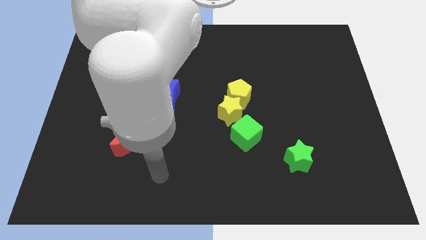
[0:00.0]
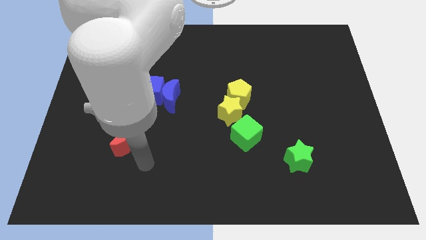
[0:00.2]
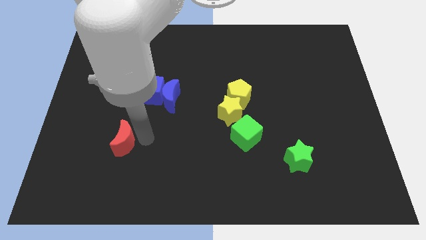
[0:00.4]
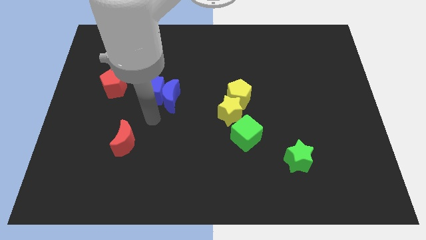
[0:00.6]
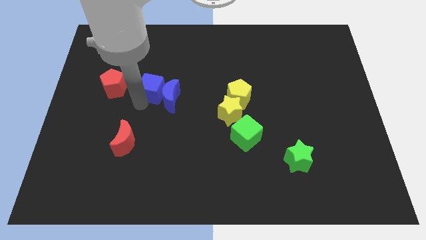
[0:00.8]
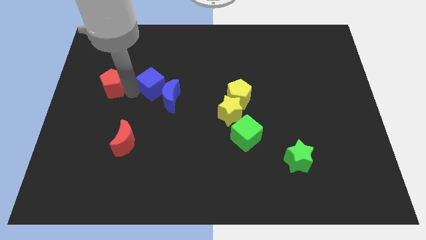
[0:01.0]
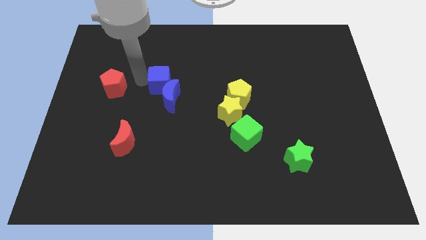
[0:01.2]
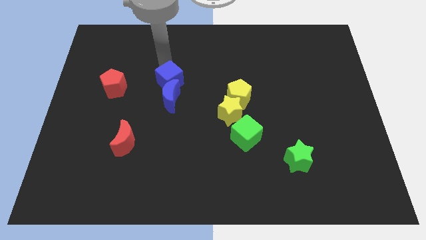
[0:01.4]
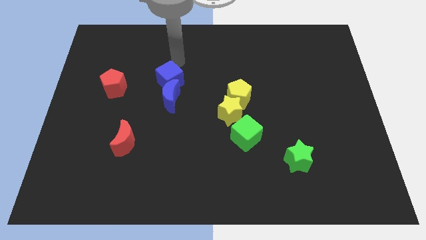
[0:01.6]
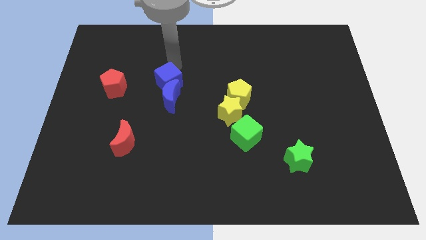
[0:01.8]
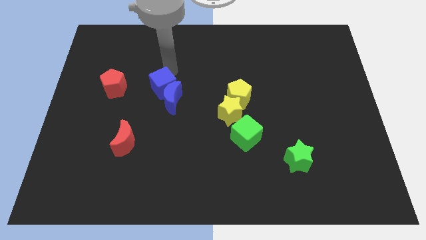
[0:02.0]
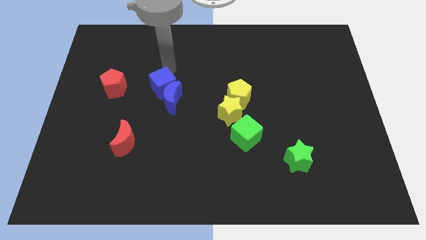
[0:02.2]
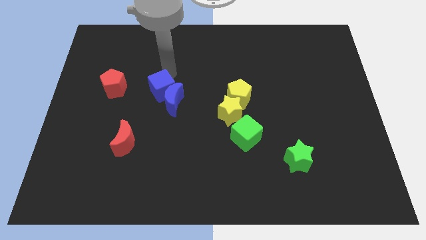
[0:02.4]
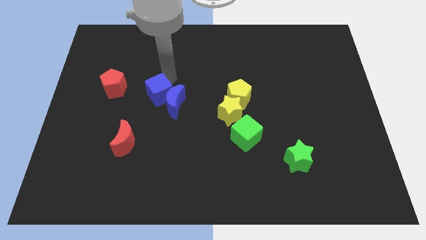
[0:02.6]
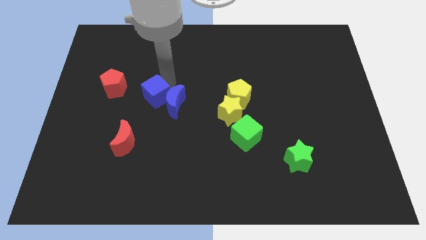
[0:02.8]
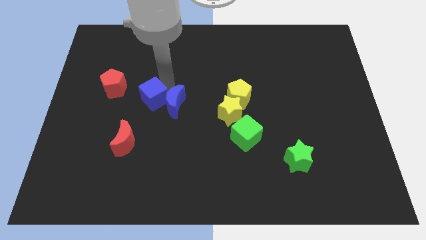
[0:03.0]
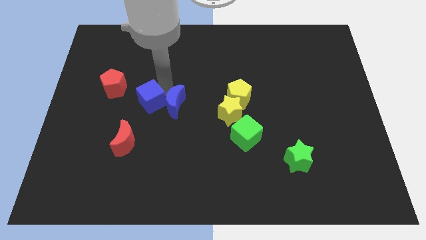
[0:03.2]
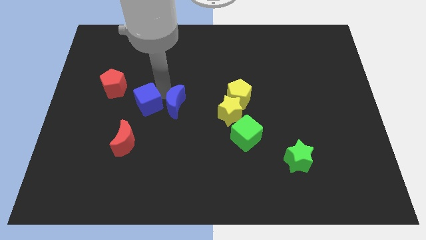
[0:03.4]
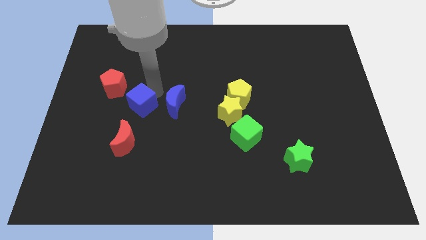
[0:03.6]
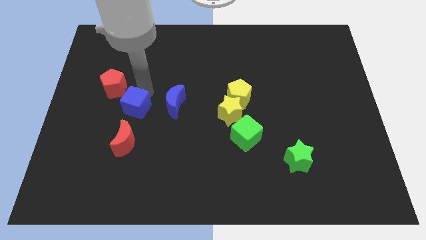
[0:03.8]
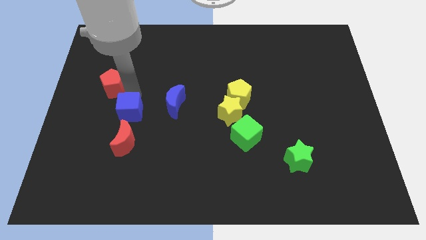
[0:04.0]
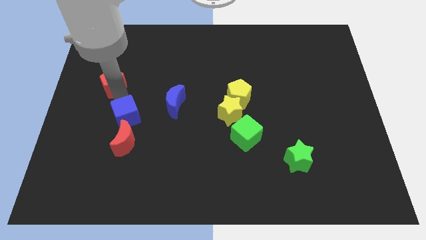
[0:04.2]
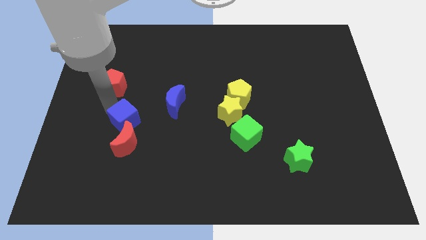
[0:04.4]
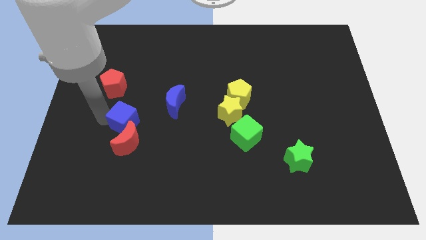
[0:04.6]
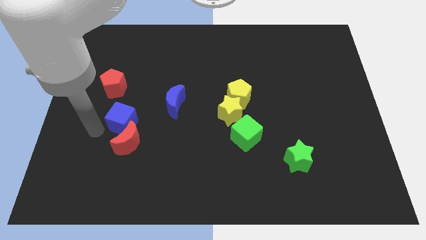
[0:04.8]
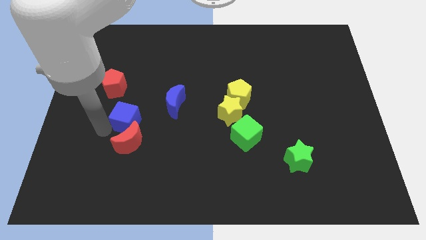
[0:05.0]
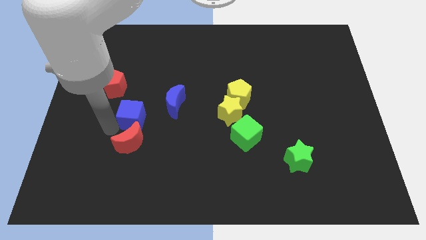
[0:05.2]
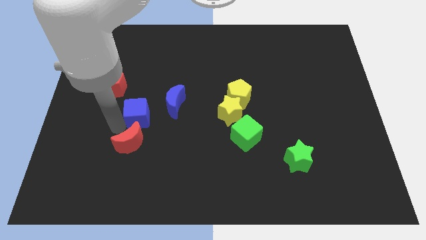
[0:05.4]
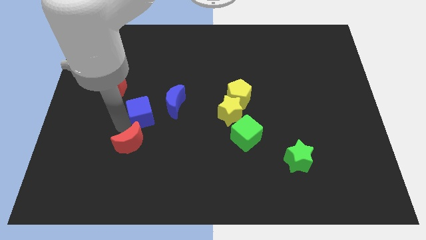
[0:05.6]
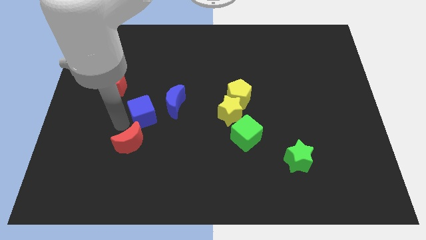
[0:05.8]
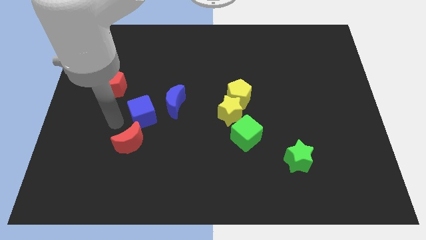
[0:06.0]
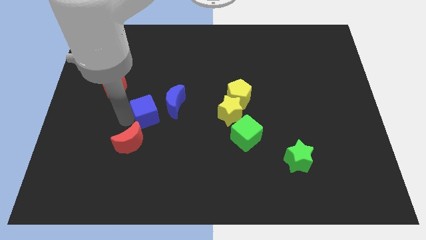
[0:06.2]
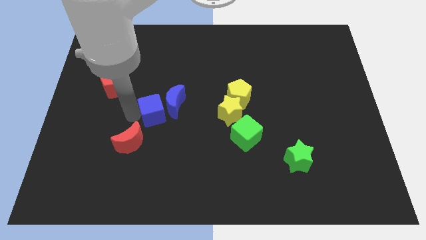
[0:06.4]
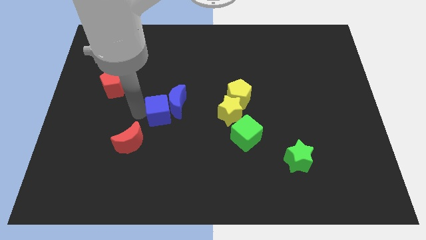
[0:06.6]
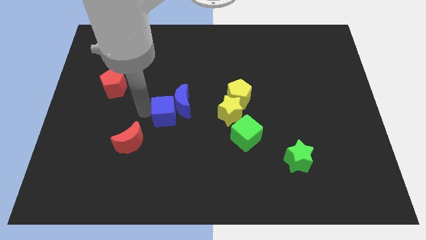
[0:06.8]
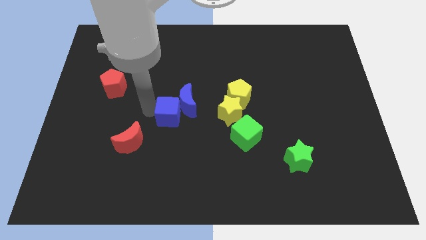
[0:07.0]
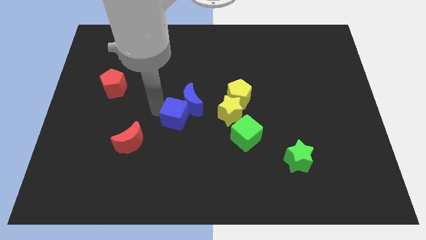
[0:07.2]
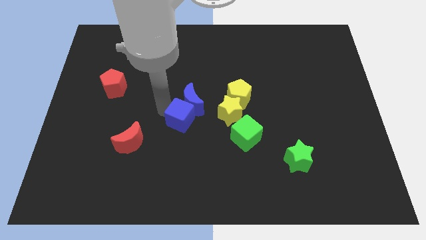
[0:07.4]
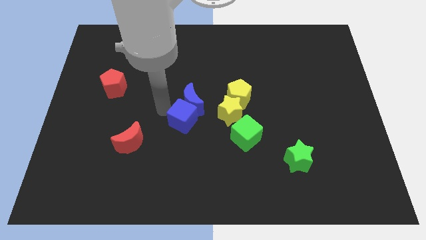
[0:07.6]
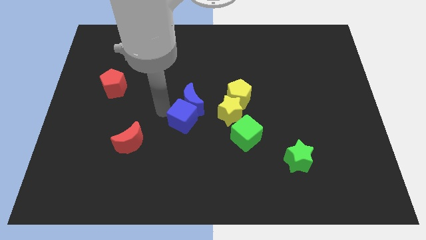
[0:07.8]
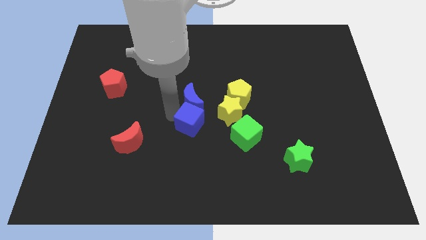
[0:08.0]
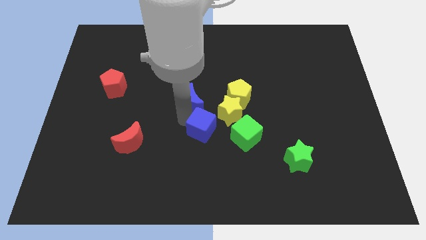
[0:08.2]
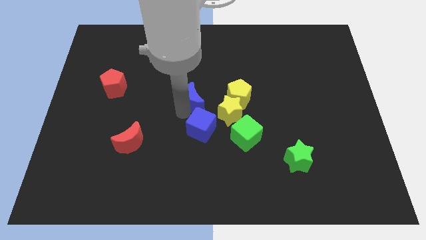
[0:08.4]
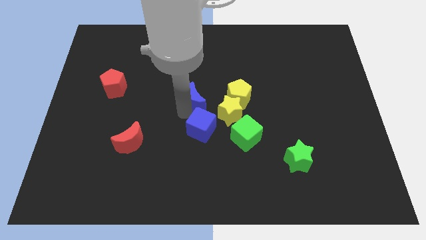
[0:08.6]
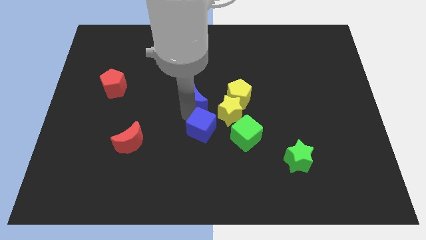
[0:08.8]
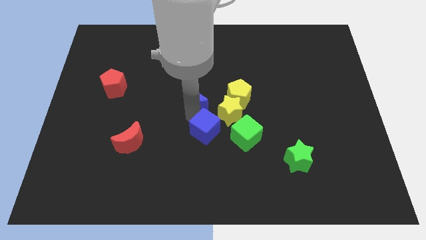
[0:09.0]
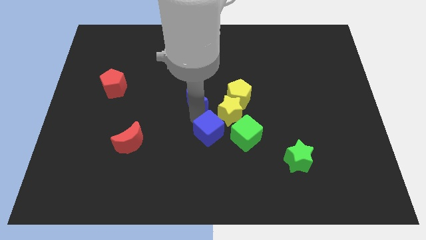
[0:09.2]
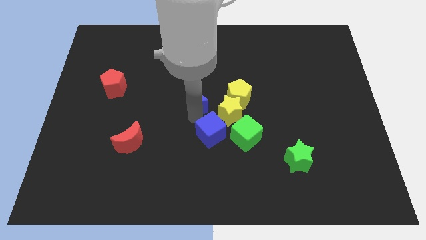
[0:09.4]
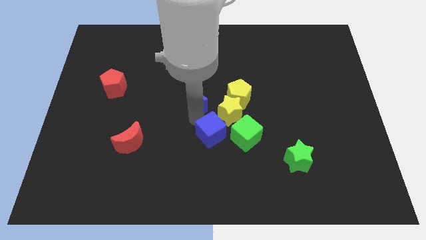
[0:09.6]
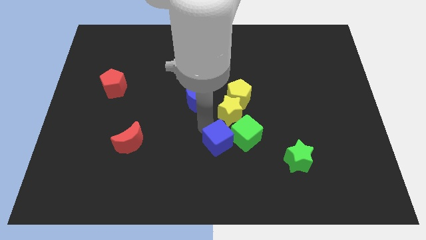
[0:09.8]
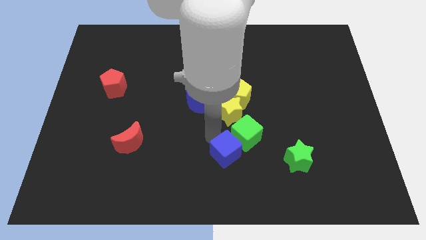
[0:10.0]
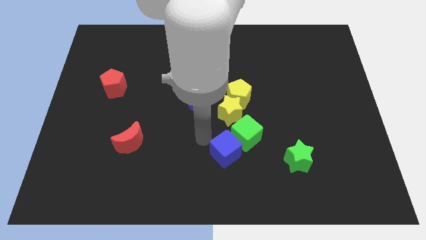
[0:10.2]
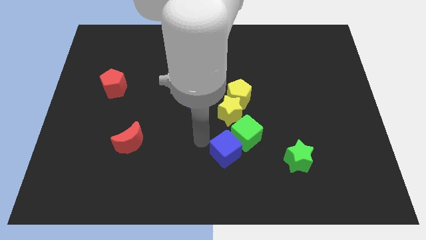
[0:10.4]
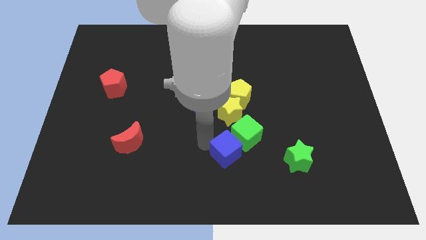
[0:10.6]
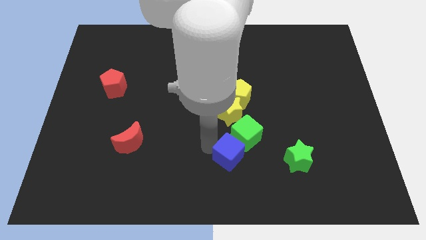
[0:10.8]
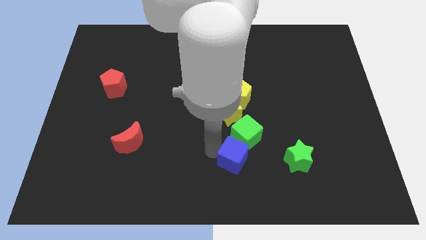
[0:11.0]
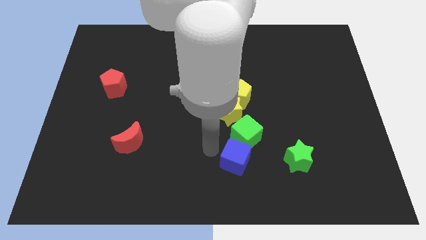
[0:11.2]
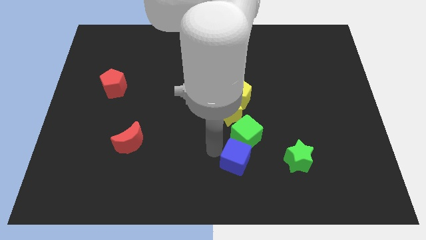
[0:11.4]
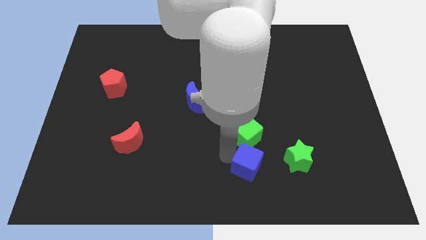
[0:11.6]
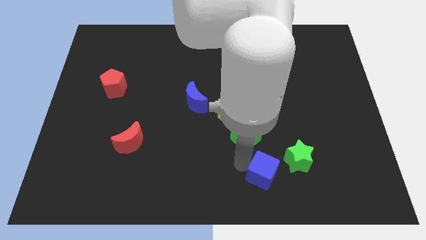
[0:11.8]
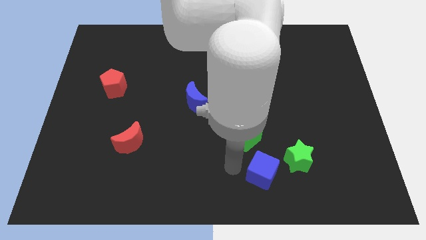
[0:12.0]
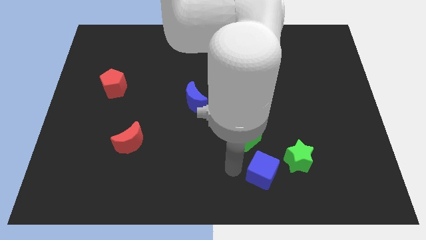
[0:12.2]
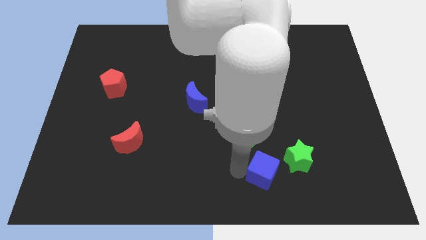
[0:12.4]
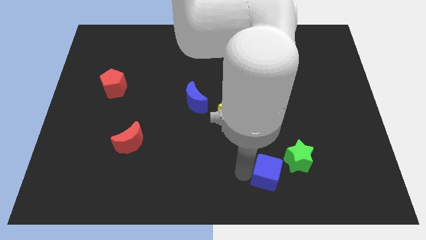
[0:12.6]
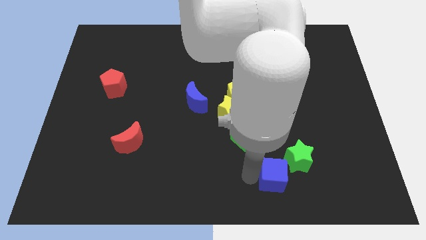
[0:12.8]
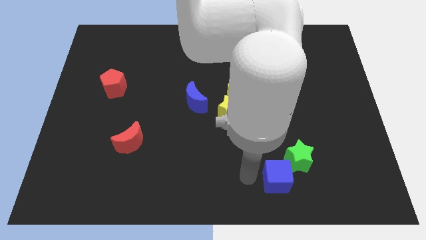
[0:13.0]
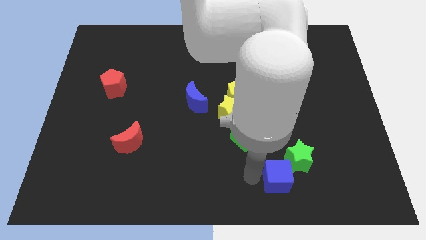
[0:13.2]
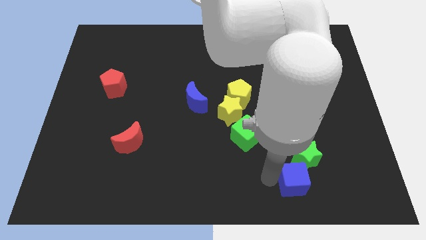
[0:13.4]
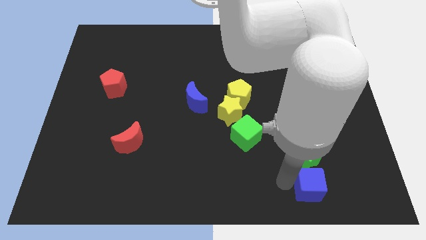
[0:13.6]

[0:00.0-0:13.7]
move the blue cube diagonally down and to the right of the green star

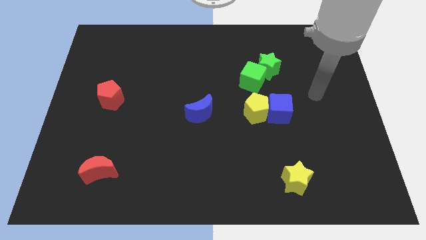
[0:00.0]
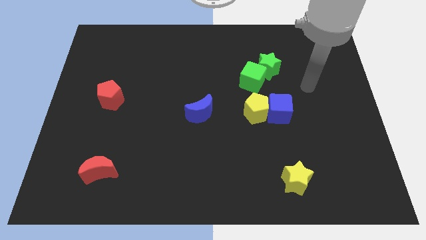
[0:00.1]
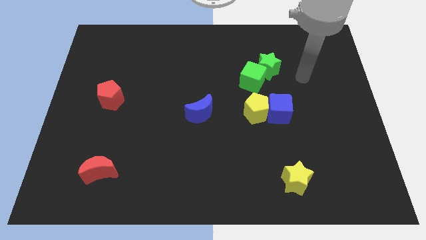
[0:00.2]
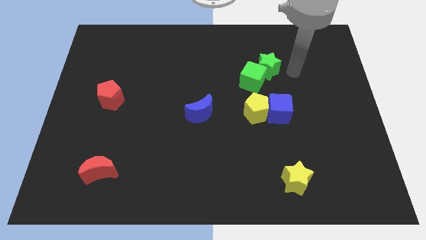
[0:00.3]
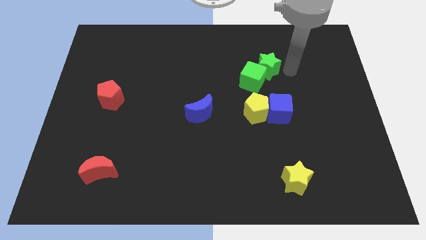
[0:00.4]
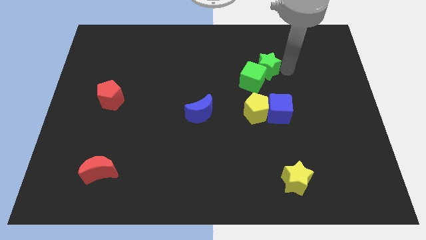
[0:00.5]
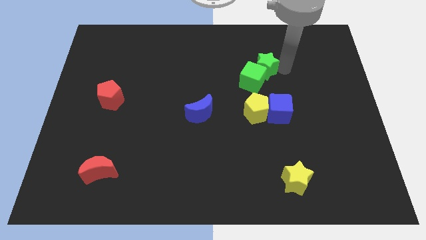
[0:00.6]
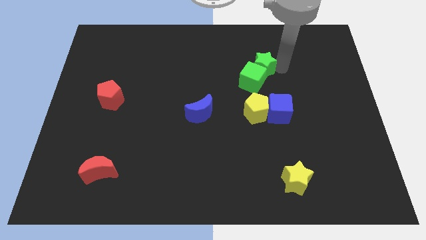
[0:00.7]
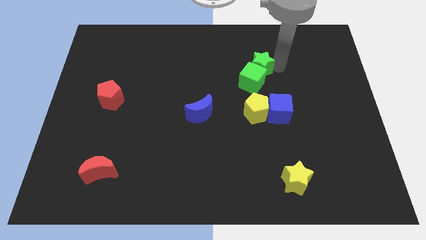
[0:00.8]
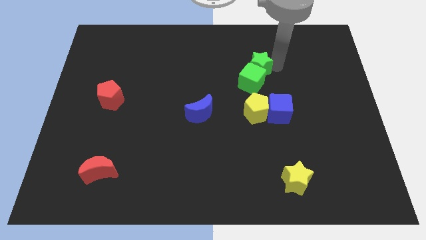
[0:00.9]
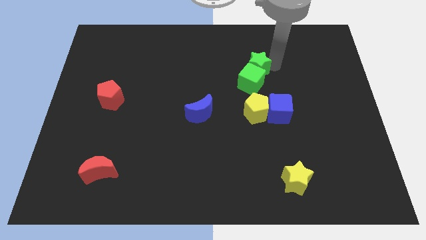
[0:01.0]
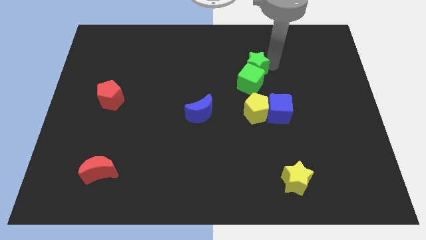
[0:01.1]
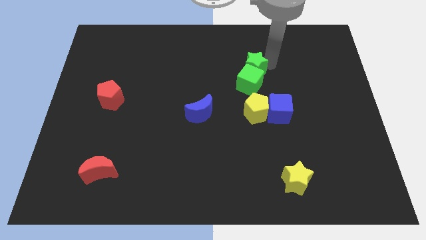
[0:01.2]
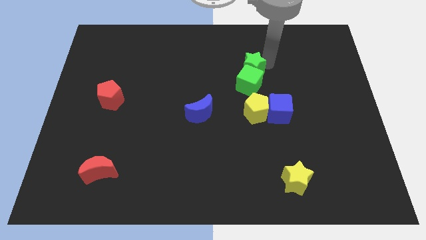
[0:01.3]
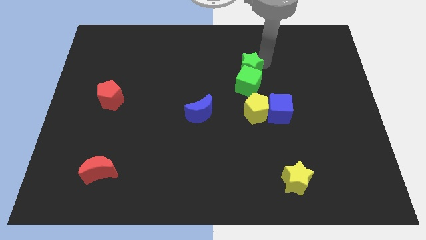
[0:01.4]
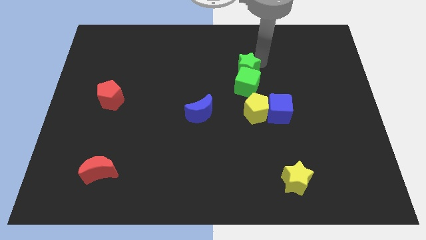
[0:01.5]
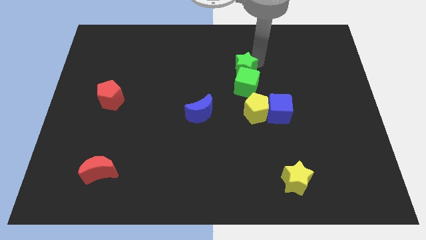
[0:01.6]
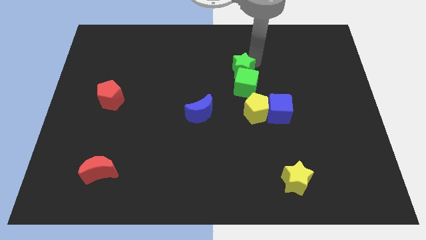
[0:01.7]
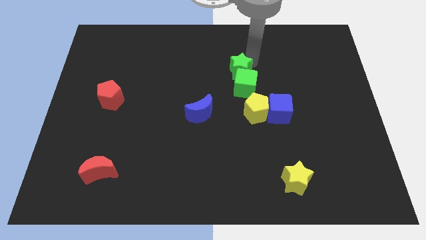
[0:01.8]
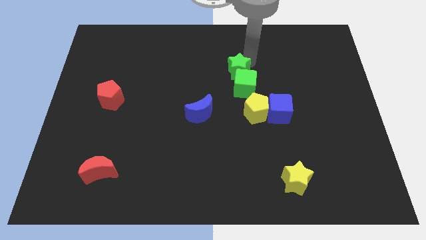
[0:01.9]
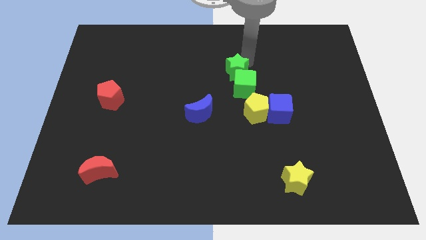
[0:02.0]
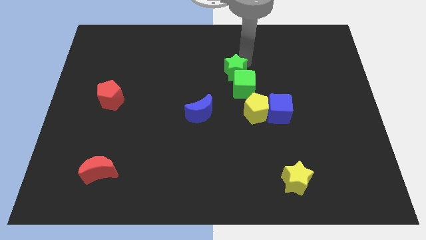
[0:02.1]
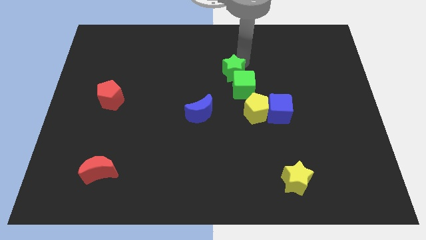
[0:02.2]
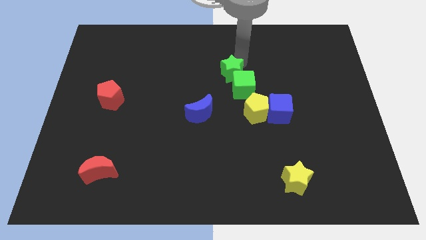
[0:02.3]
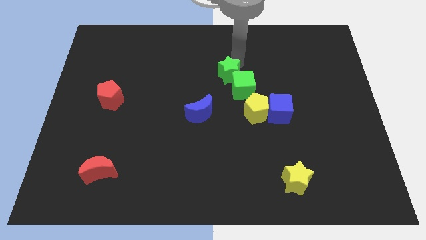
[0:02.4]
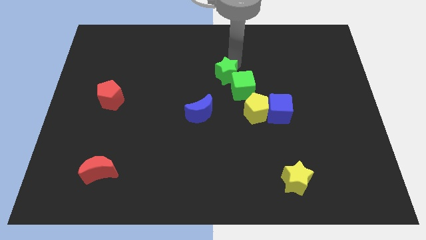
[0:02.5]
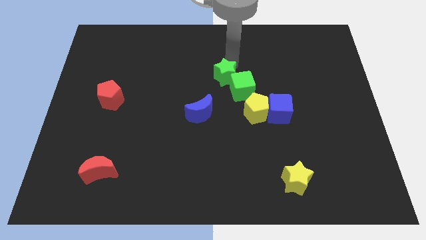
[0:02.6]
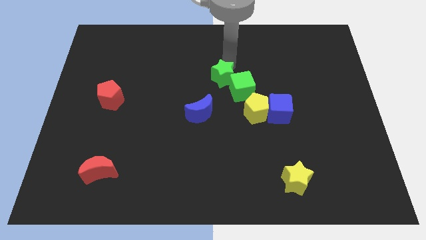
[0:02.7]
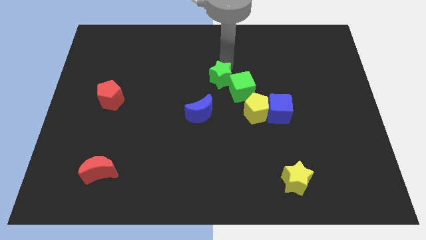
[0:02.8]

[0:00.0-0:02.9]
push the green star to the top of the blue moon
